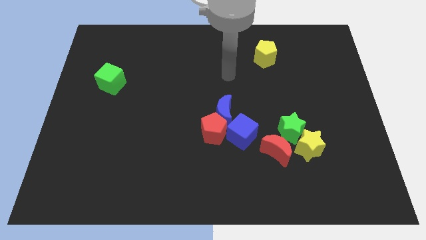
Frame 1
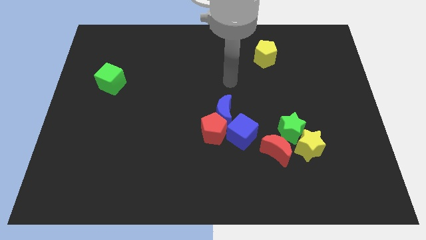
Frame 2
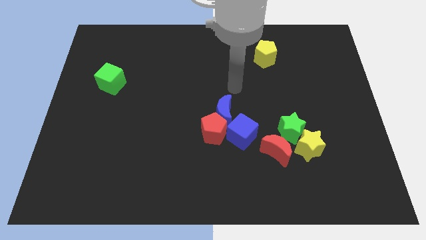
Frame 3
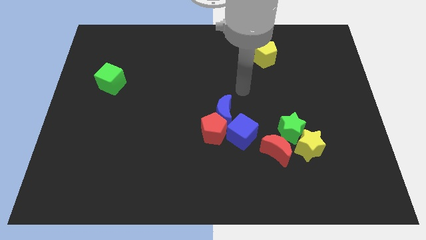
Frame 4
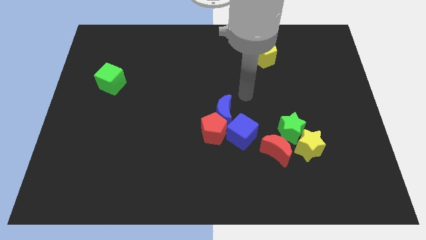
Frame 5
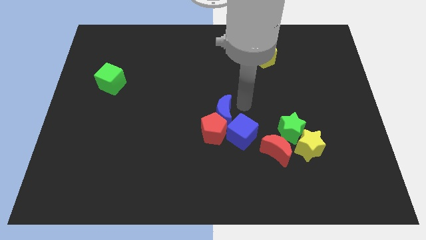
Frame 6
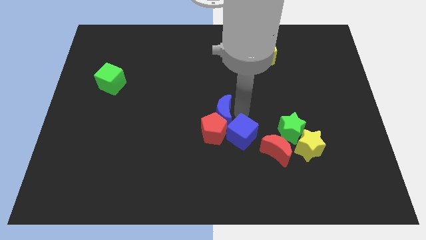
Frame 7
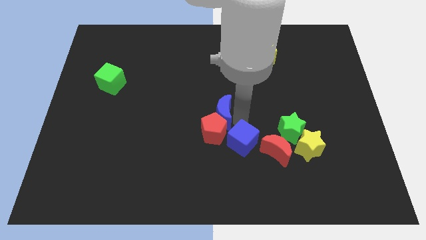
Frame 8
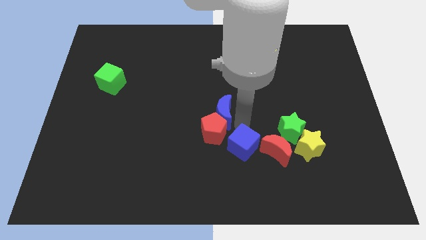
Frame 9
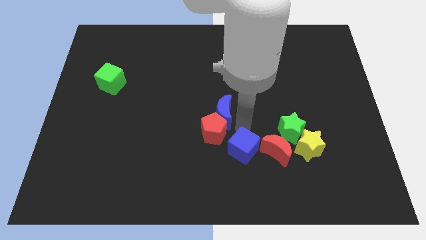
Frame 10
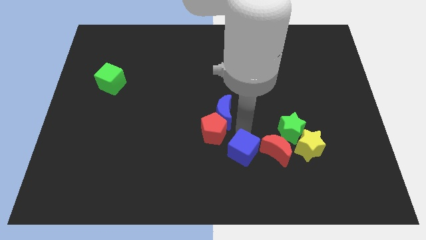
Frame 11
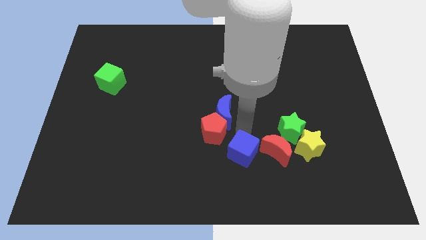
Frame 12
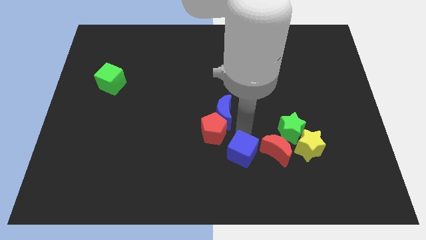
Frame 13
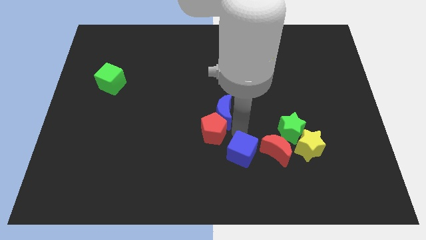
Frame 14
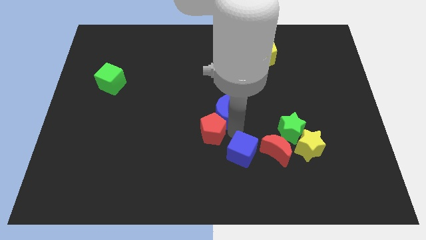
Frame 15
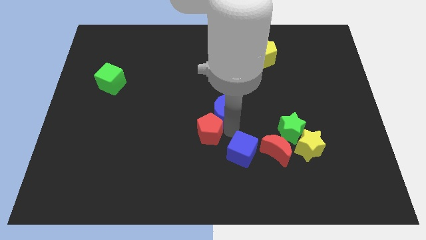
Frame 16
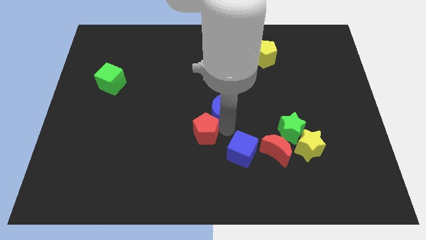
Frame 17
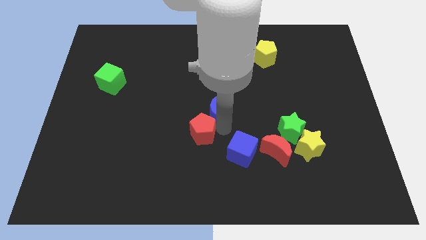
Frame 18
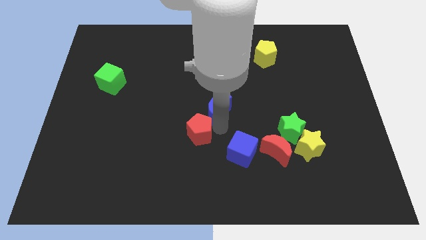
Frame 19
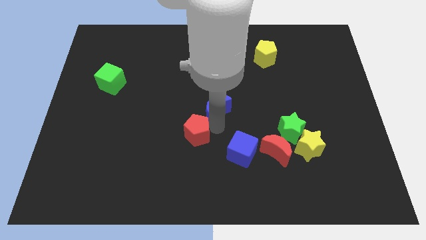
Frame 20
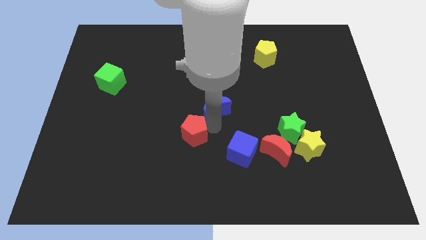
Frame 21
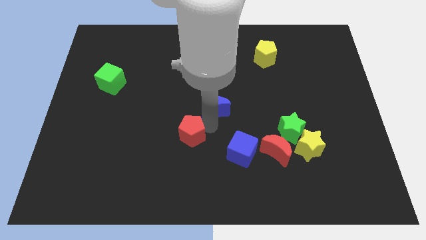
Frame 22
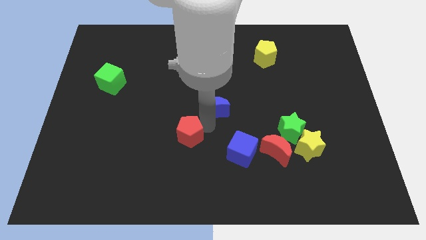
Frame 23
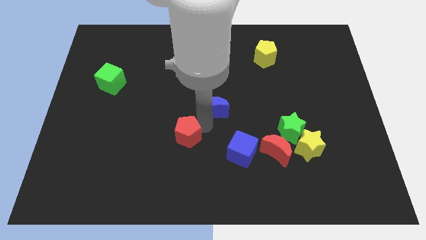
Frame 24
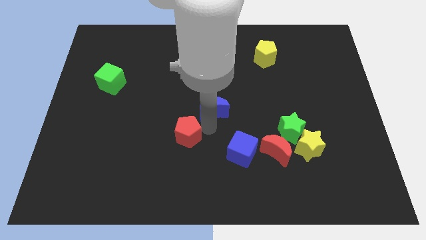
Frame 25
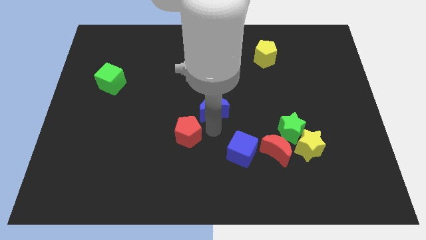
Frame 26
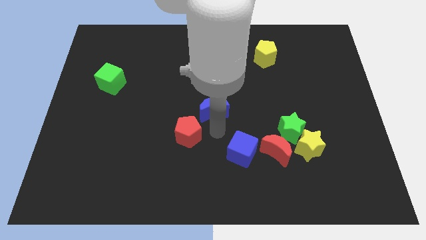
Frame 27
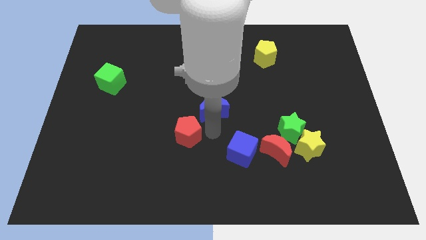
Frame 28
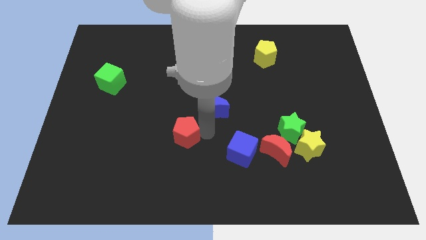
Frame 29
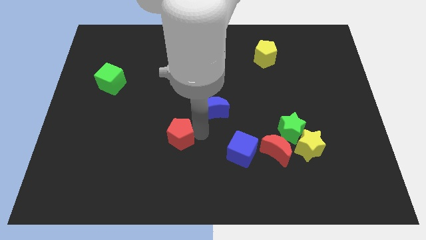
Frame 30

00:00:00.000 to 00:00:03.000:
separate the red pentagon from the blue moon and blue cube

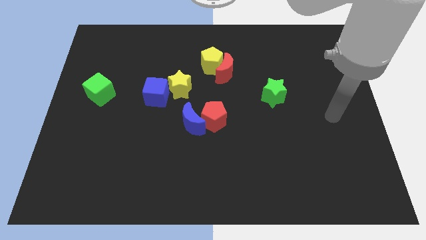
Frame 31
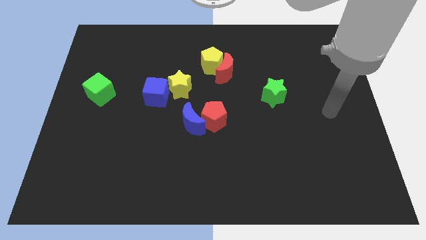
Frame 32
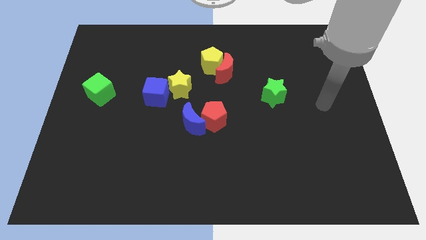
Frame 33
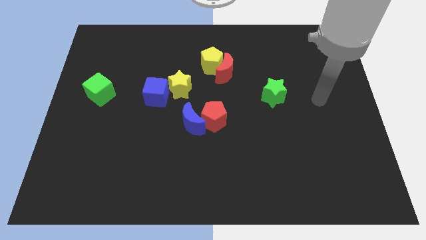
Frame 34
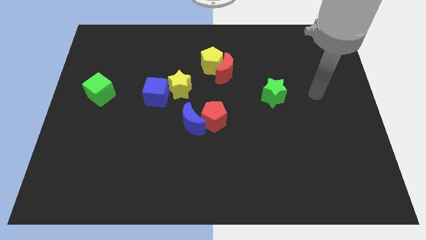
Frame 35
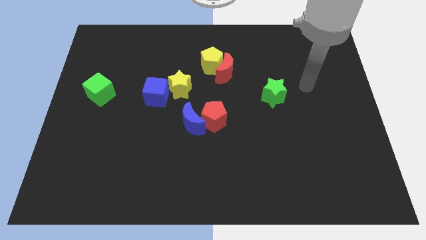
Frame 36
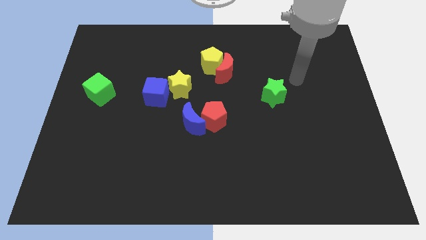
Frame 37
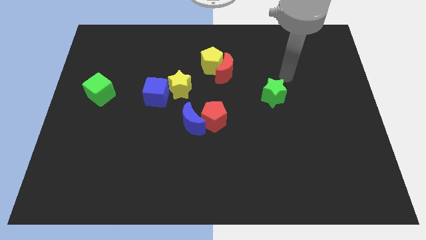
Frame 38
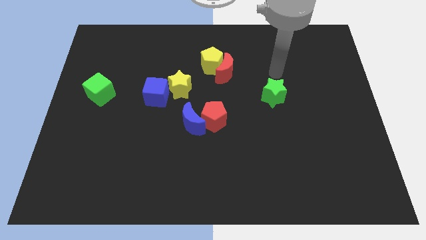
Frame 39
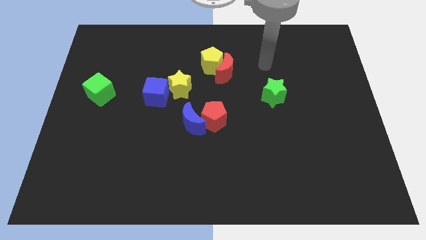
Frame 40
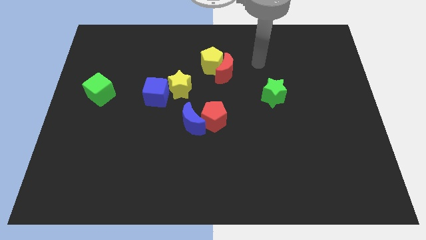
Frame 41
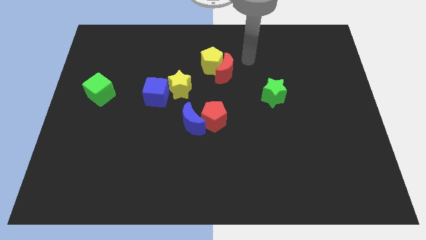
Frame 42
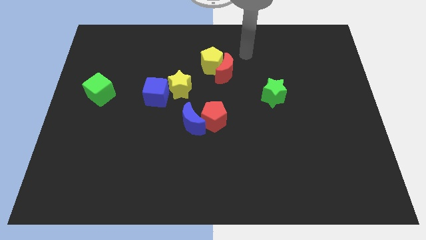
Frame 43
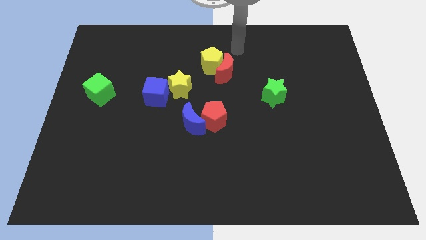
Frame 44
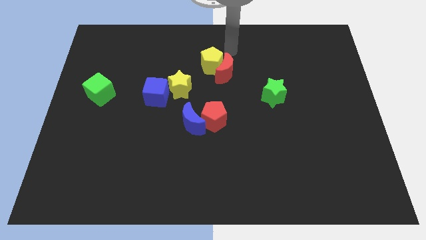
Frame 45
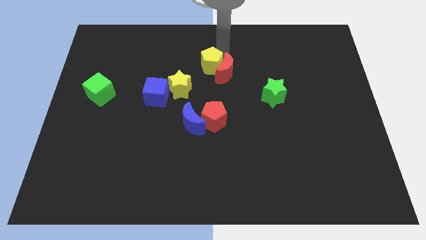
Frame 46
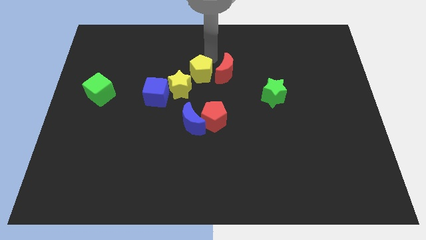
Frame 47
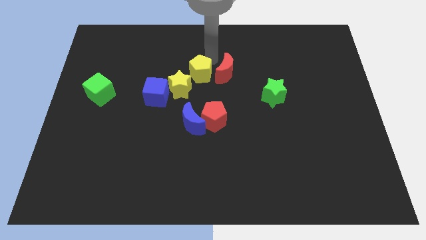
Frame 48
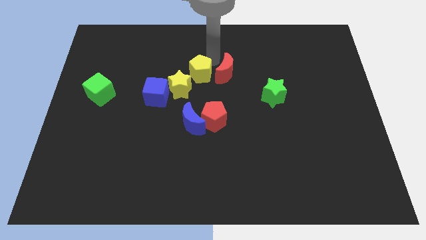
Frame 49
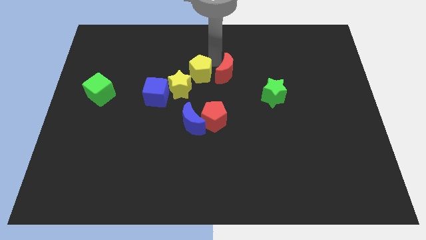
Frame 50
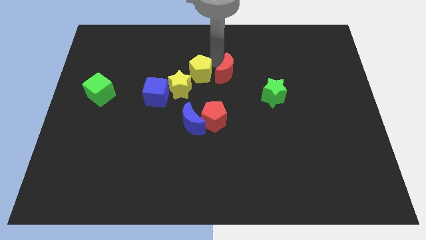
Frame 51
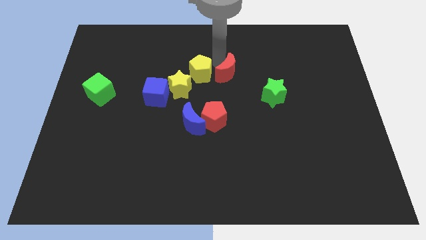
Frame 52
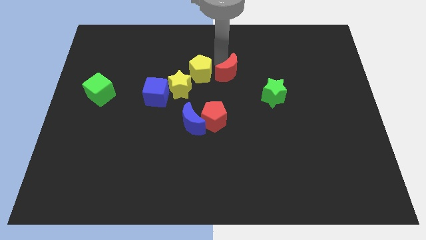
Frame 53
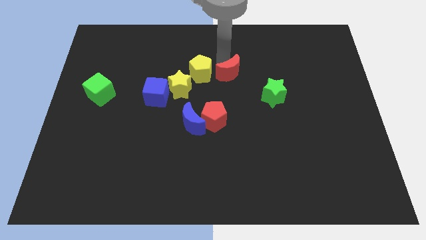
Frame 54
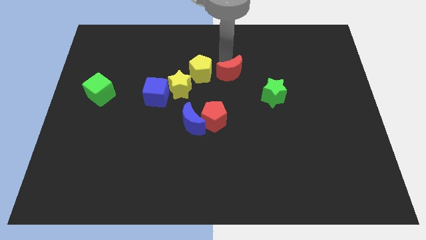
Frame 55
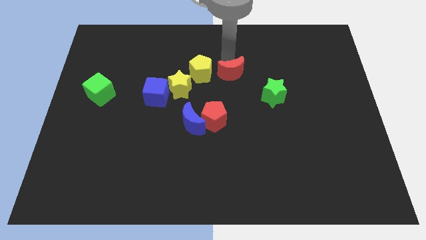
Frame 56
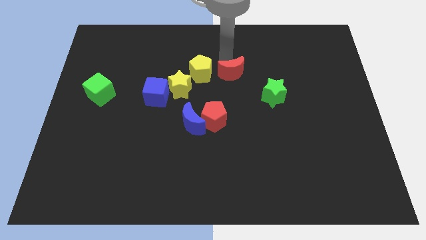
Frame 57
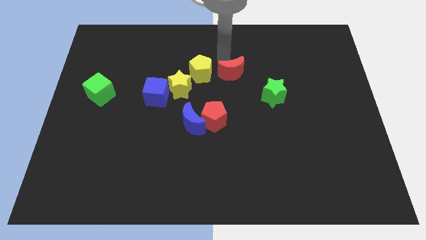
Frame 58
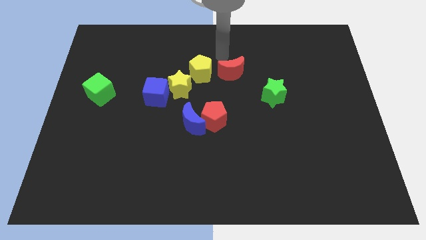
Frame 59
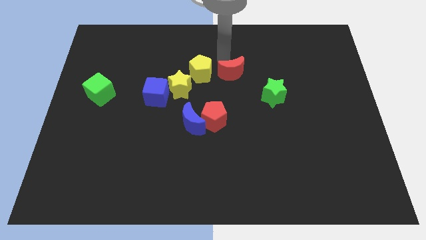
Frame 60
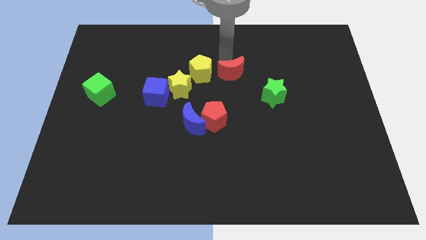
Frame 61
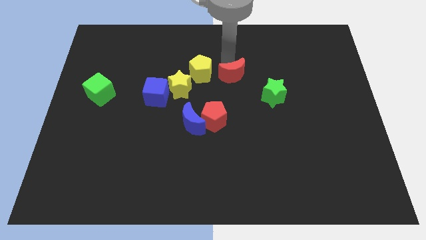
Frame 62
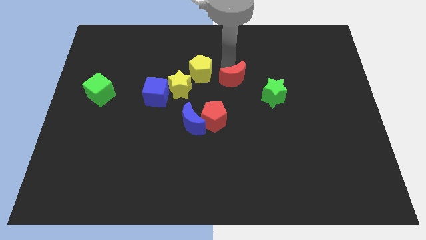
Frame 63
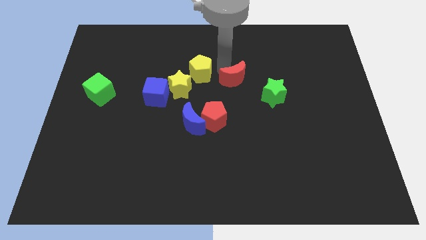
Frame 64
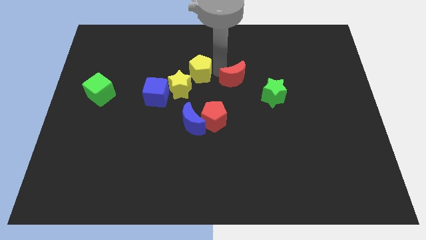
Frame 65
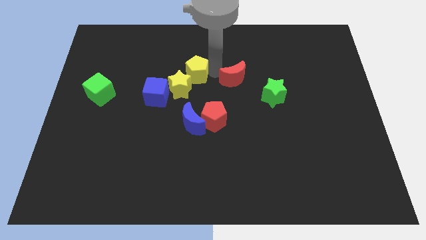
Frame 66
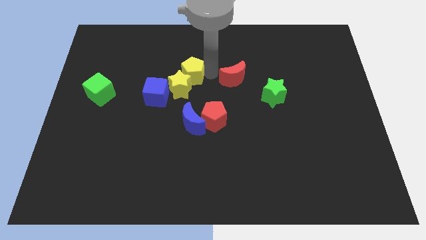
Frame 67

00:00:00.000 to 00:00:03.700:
separate the red moon from the yellow pentagon

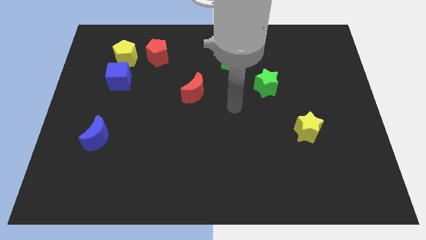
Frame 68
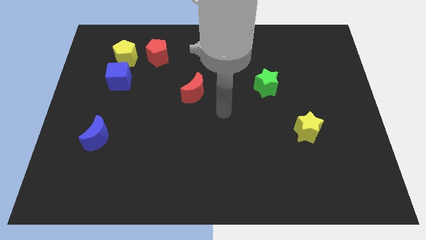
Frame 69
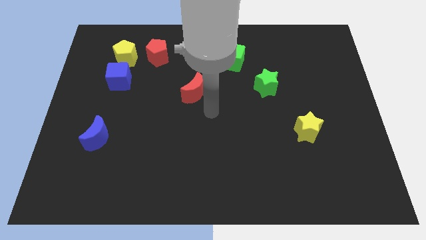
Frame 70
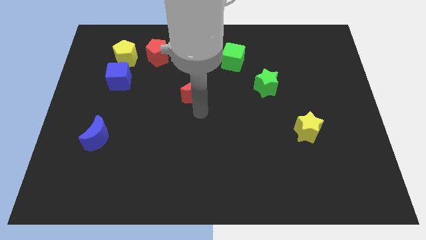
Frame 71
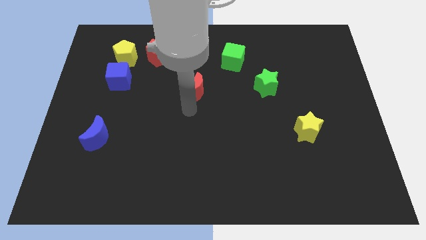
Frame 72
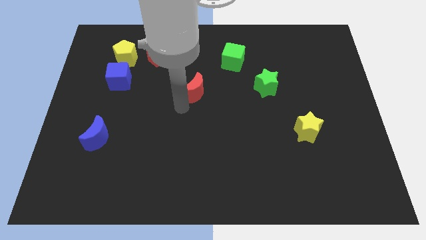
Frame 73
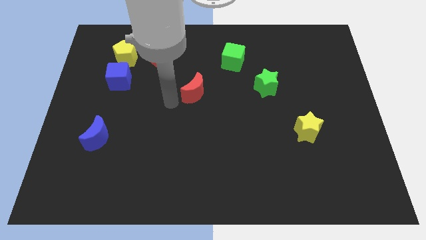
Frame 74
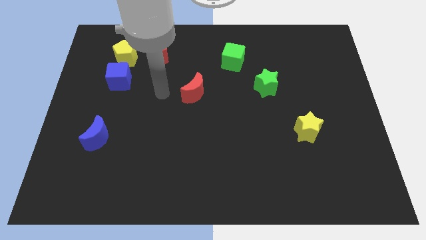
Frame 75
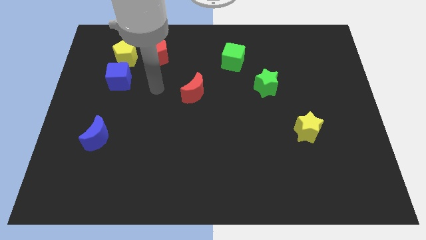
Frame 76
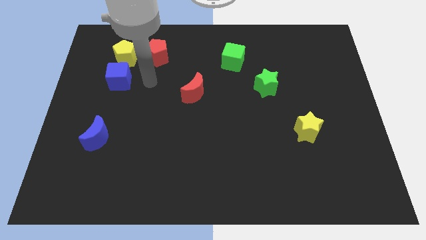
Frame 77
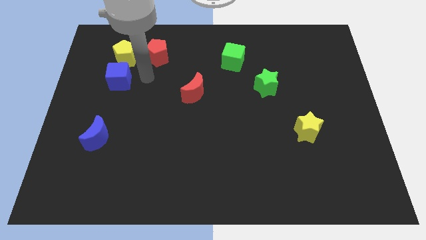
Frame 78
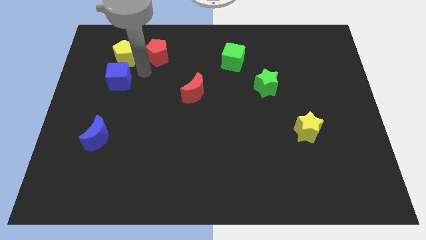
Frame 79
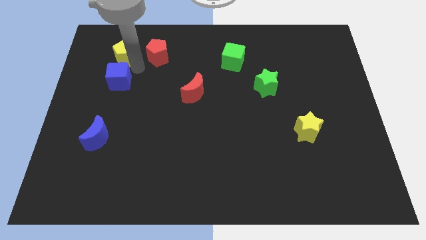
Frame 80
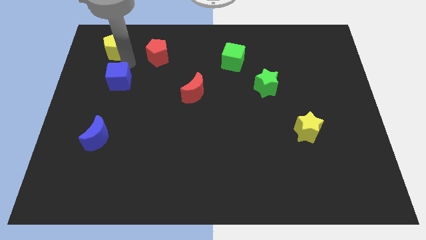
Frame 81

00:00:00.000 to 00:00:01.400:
pull the blue cube apart from the yellow pentagon

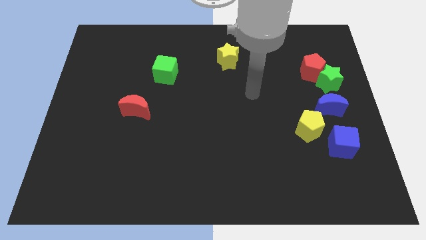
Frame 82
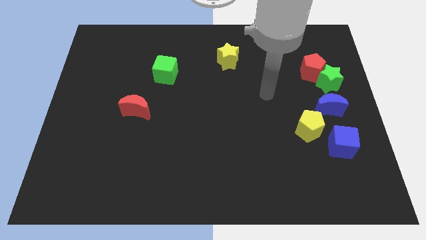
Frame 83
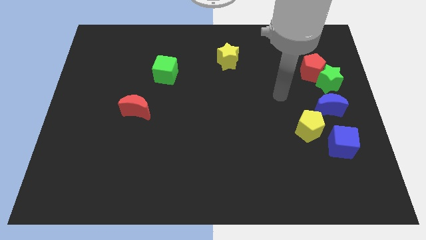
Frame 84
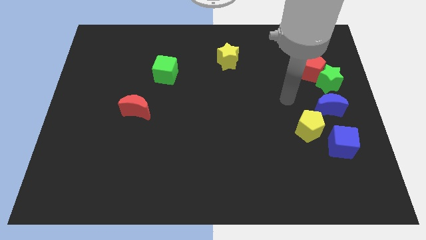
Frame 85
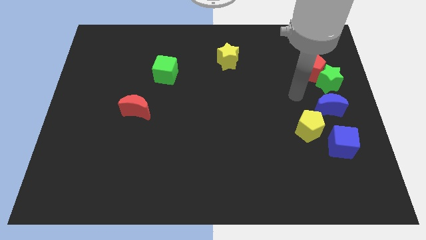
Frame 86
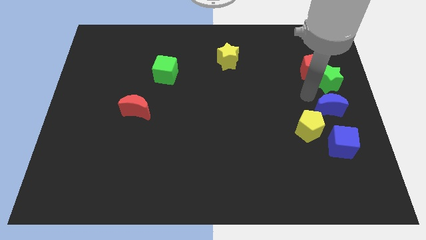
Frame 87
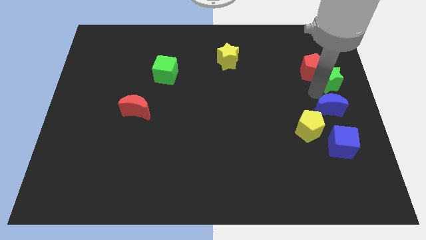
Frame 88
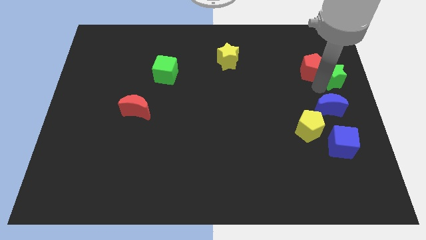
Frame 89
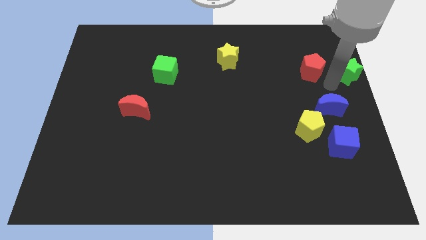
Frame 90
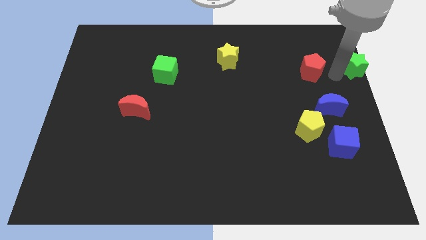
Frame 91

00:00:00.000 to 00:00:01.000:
move the red pentagon away from the green star

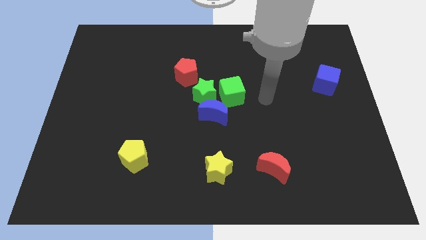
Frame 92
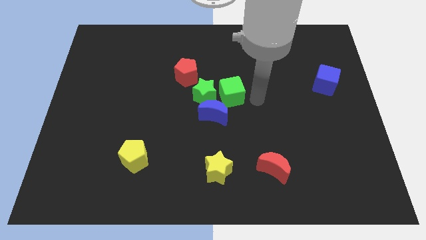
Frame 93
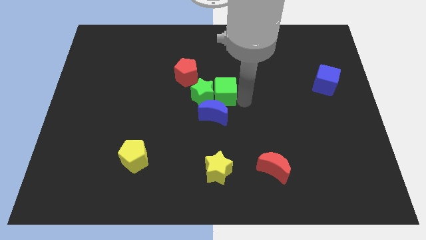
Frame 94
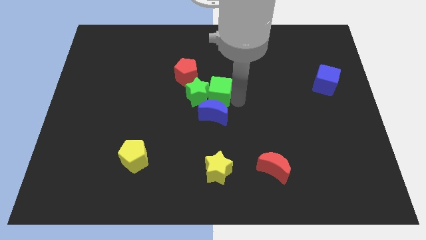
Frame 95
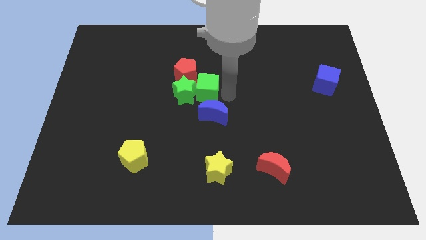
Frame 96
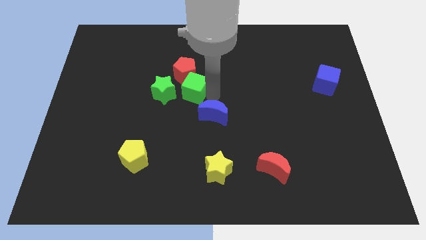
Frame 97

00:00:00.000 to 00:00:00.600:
move the blue moon away from the green star and green cube
